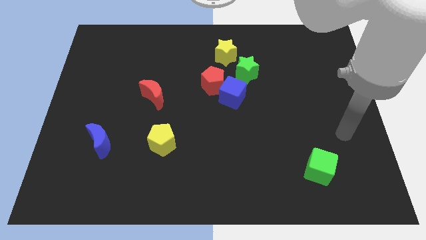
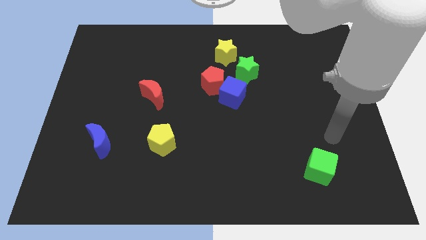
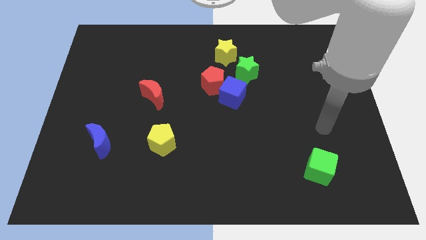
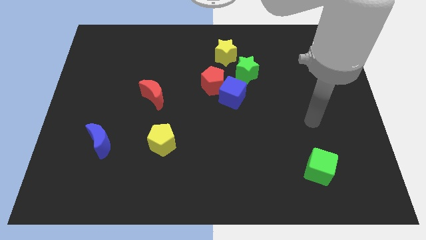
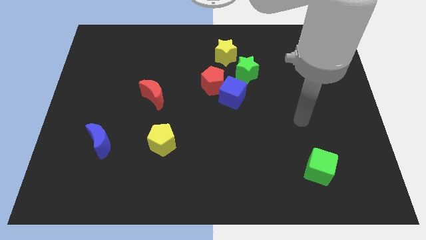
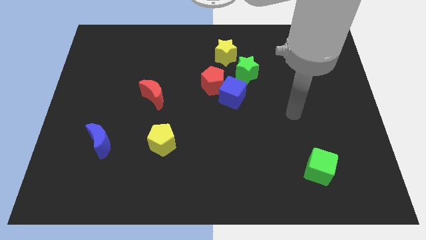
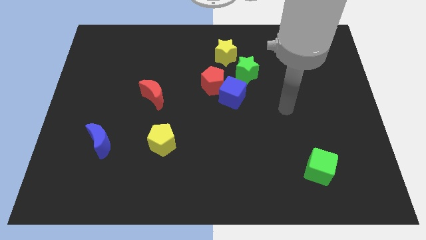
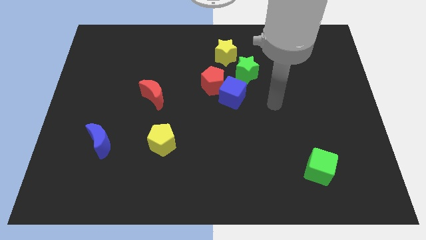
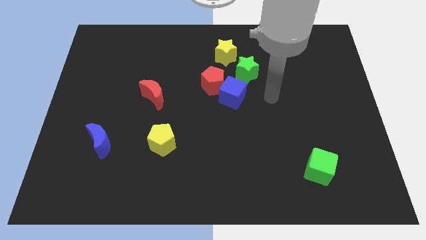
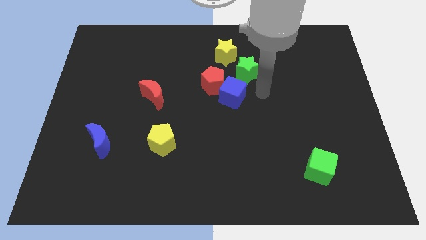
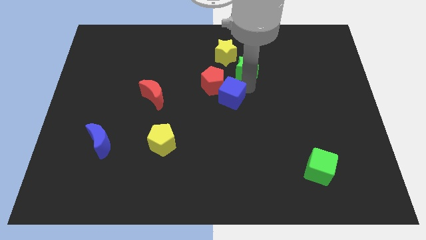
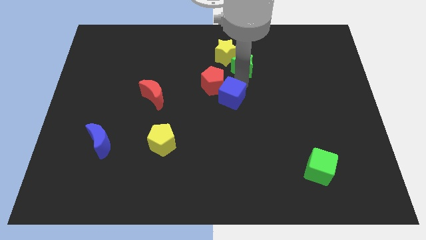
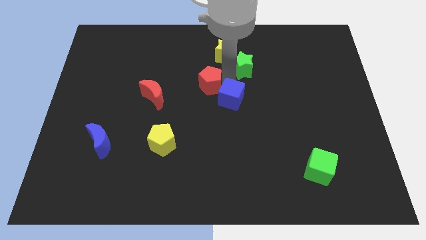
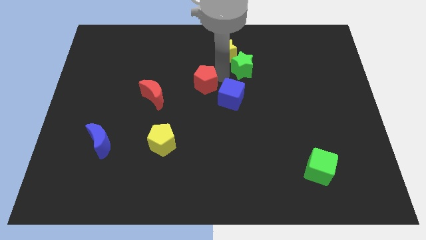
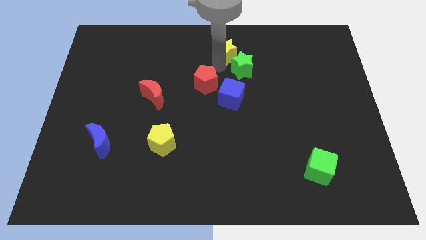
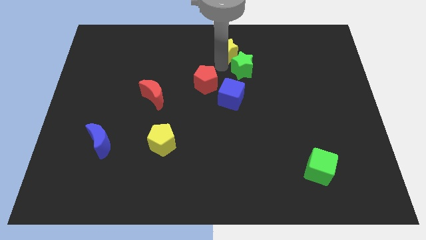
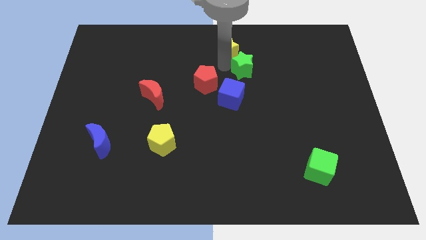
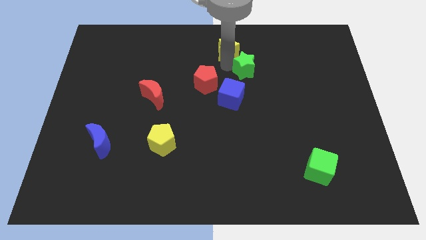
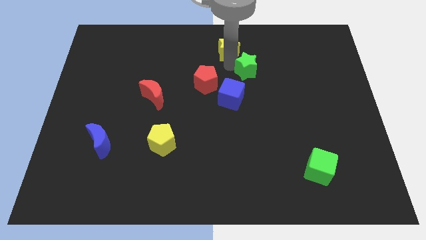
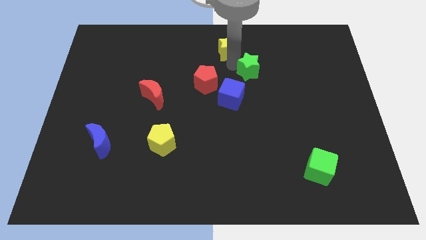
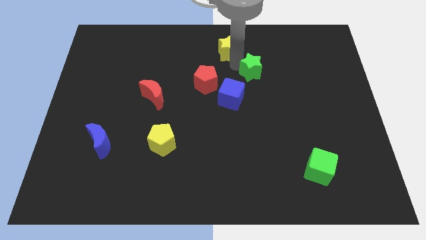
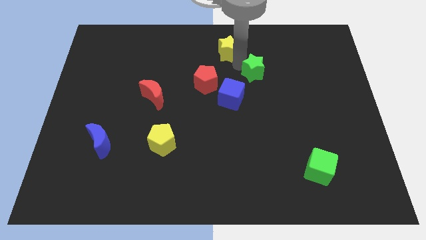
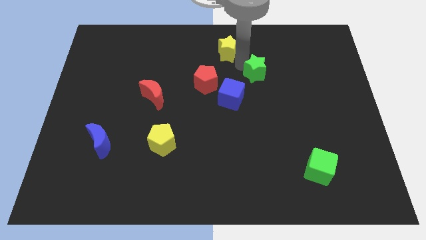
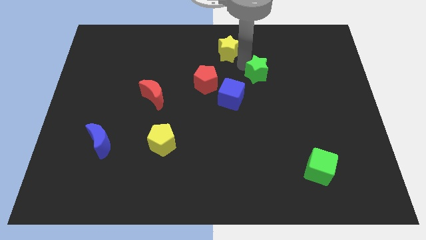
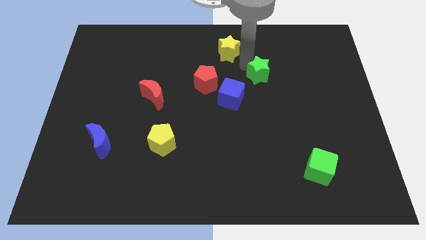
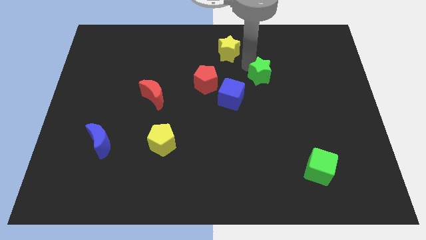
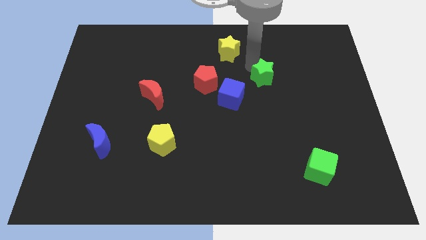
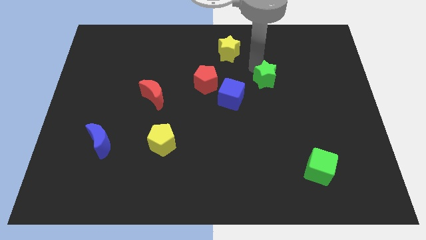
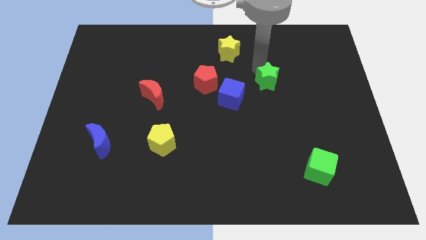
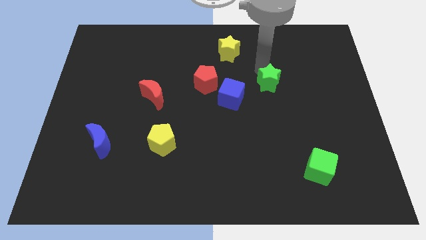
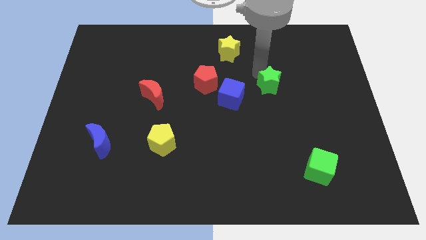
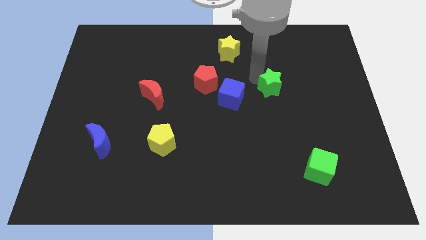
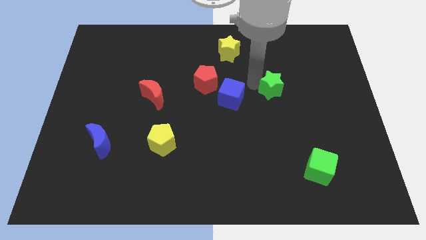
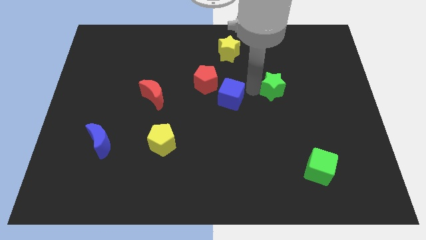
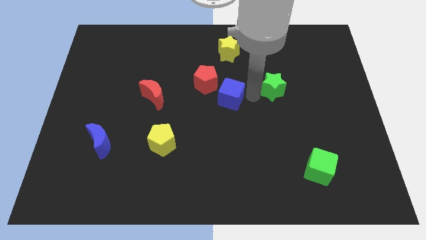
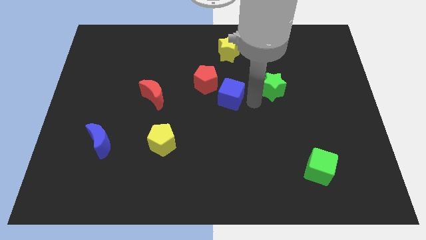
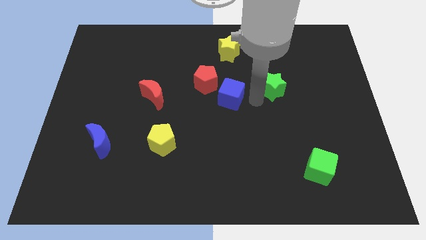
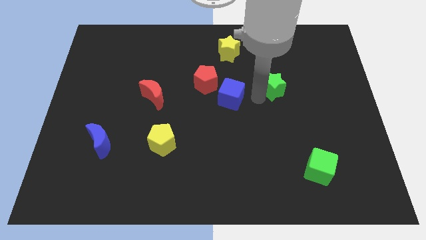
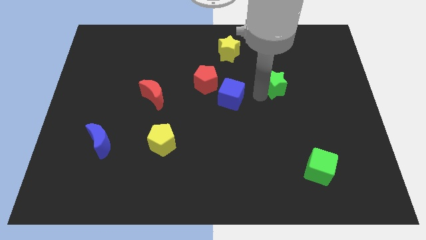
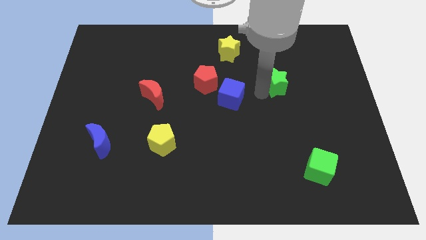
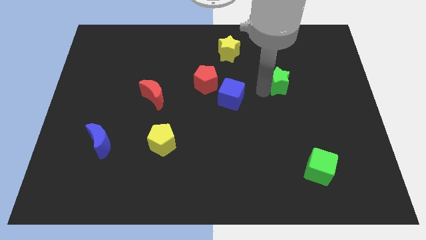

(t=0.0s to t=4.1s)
push the green star to the right a little

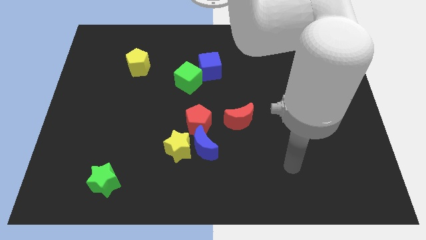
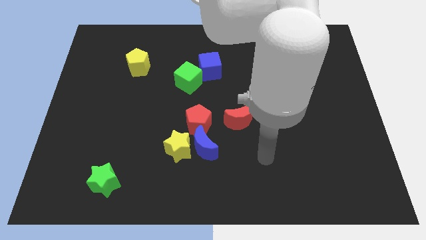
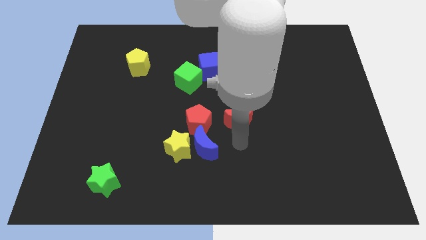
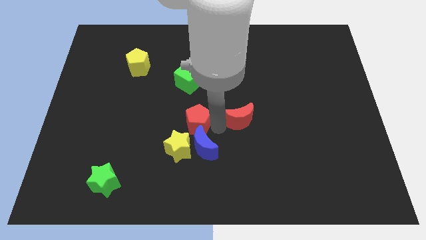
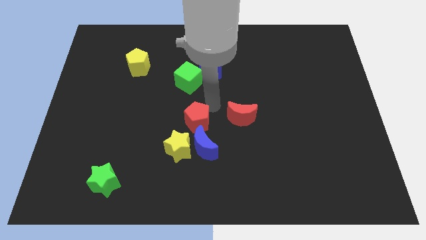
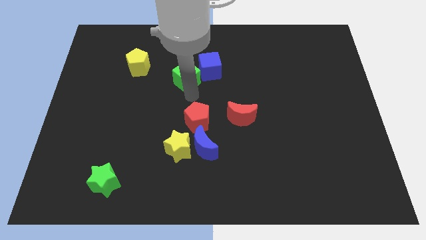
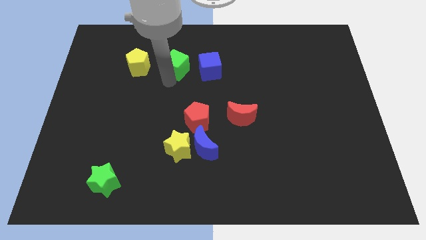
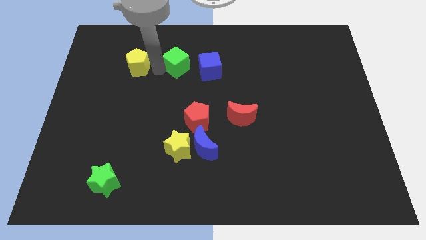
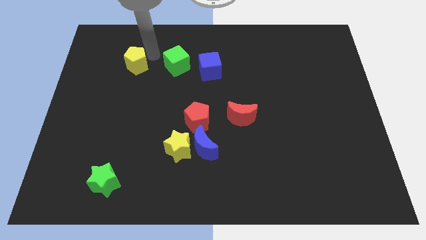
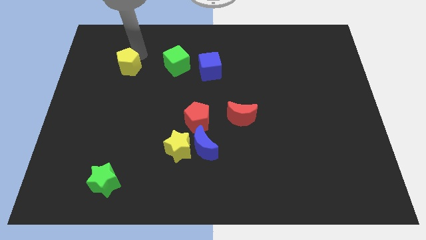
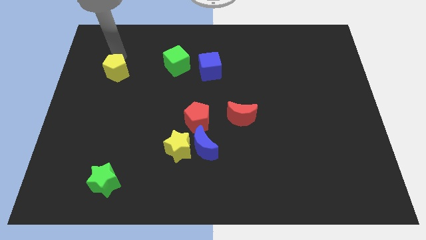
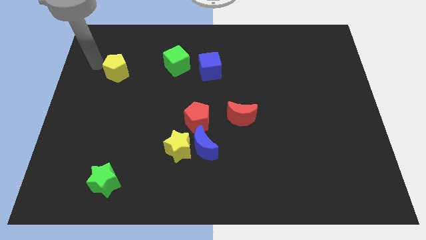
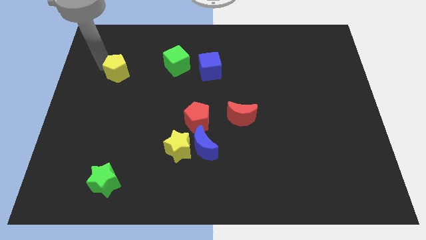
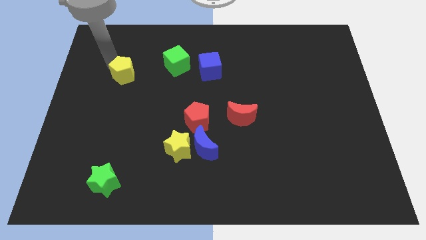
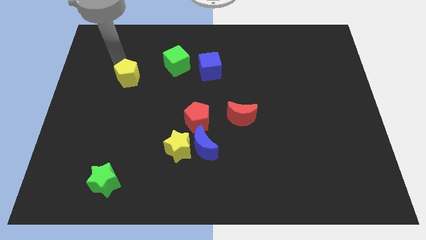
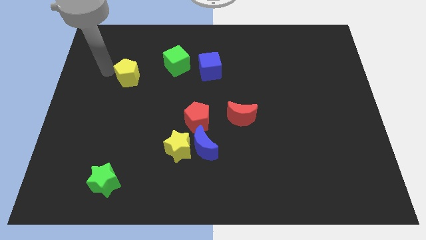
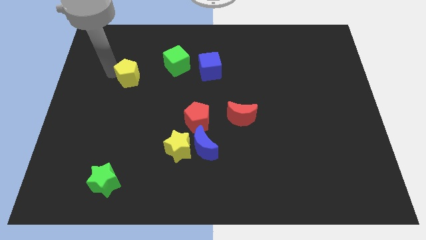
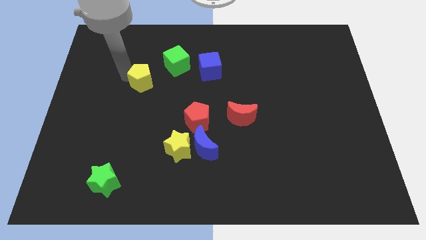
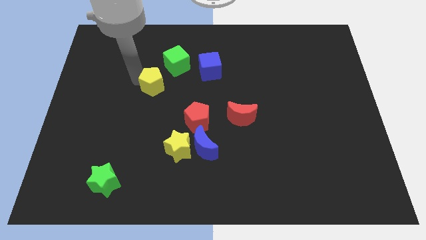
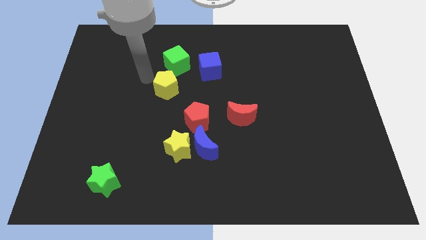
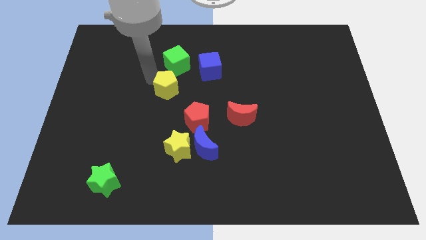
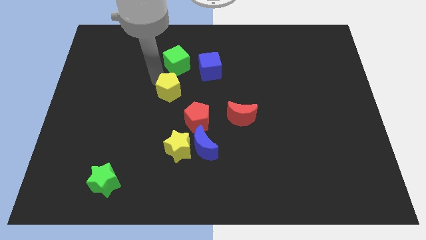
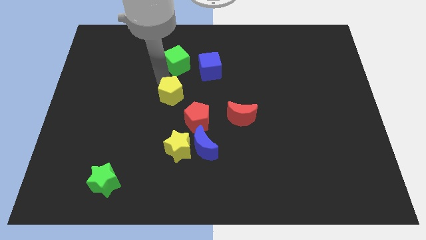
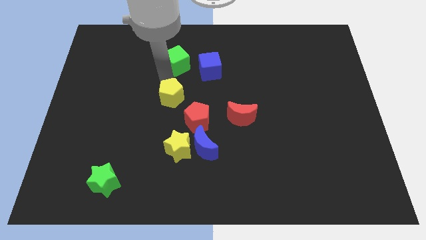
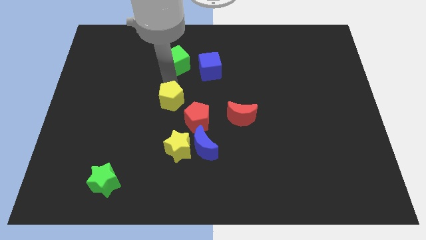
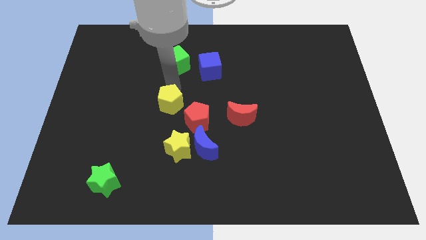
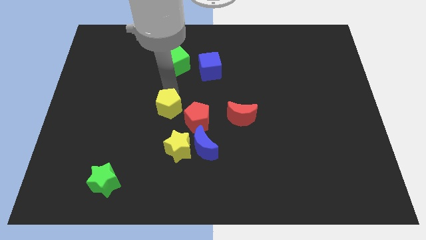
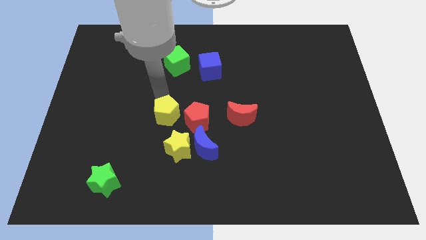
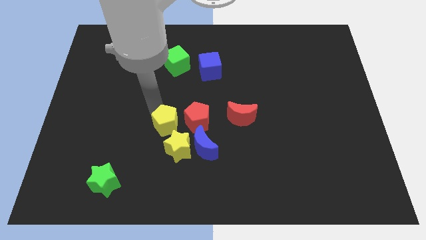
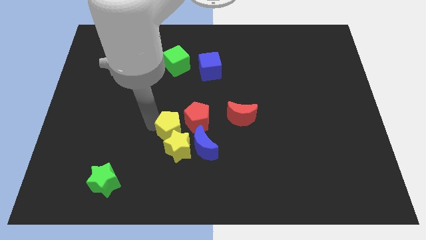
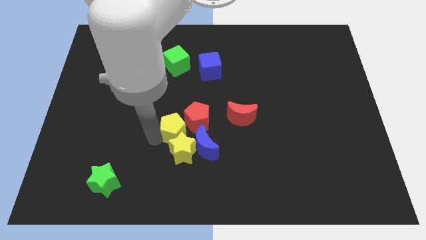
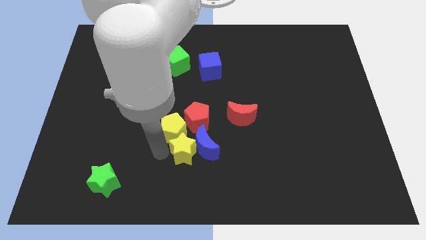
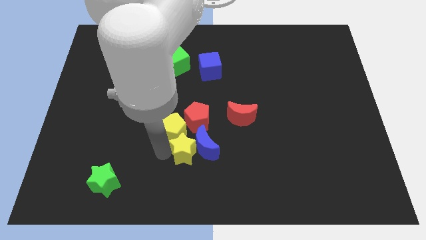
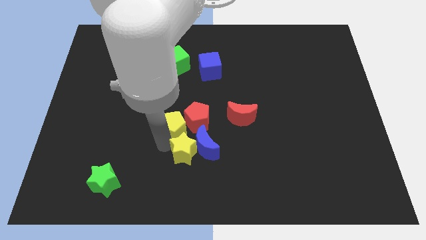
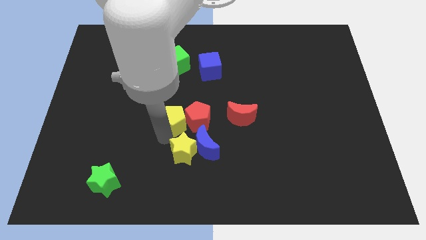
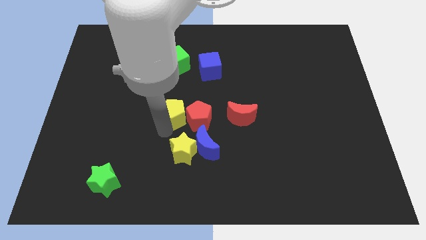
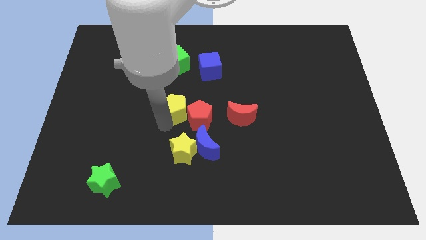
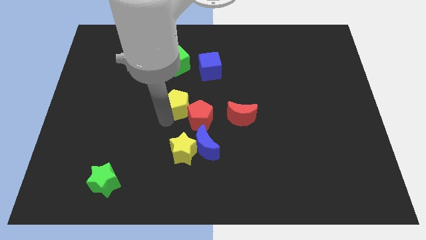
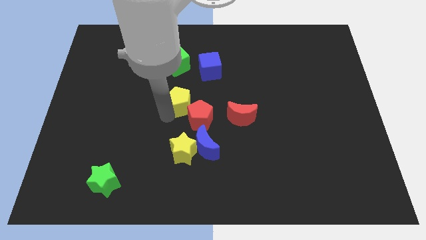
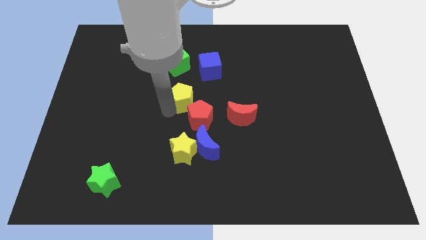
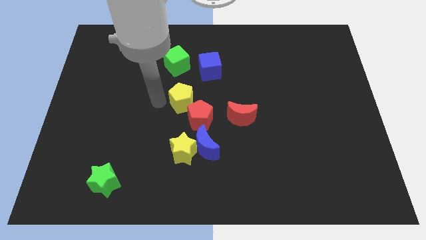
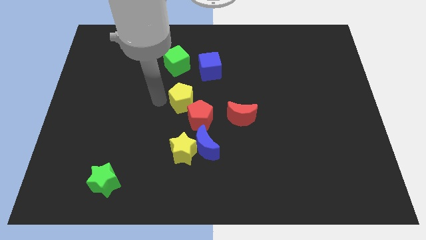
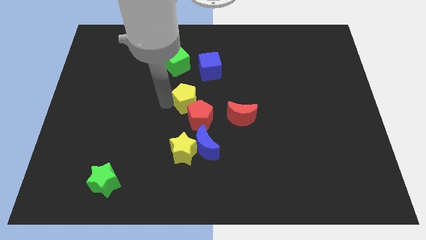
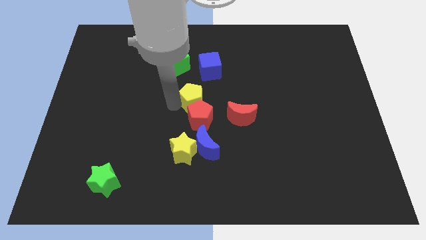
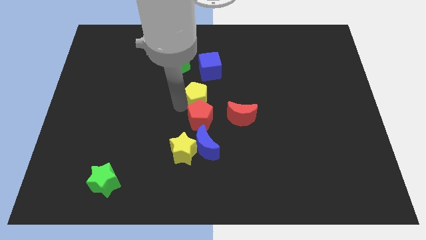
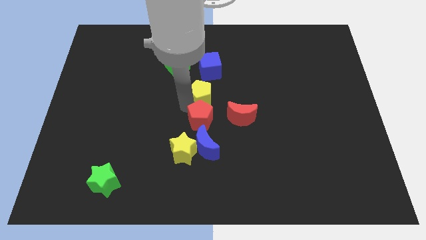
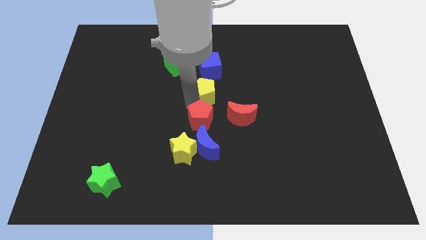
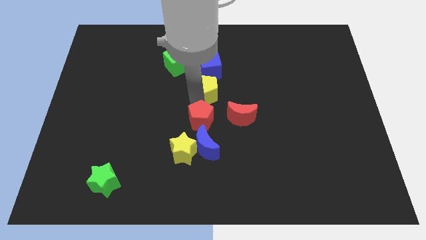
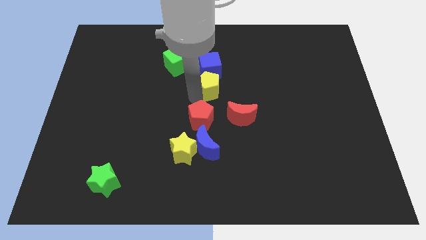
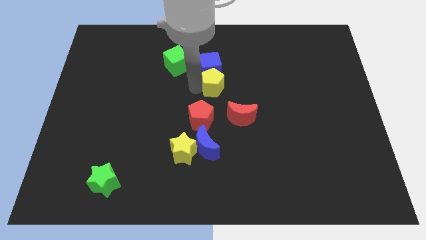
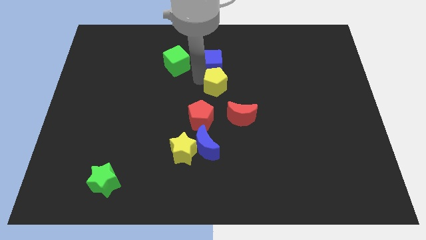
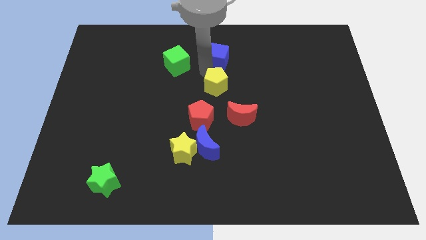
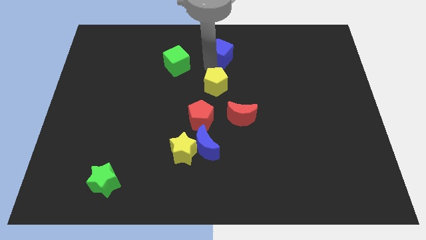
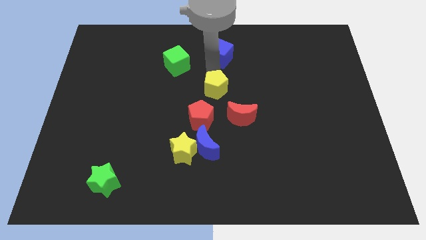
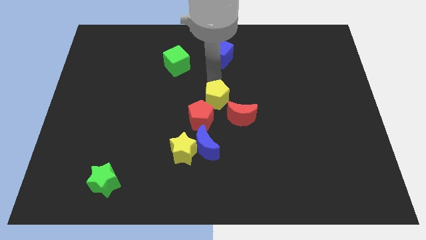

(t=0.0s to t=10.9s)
push the yellow pentagon down and to the right
